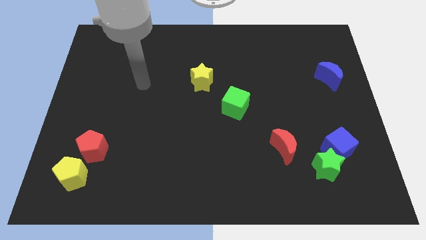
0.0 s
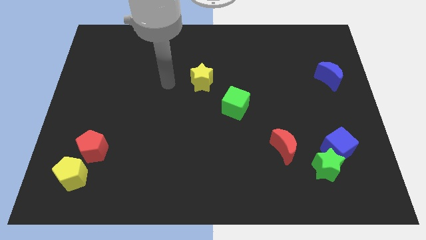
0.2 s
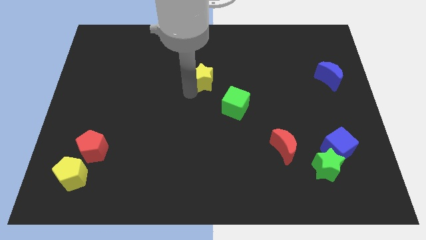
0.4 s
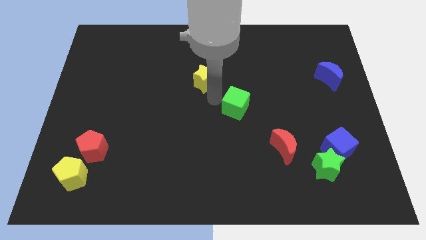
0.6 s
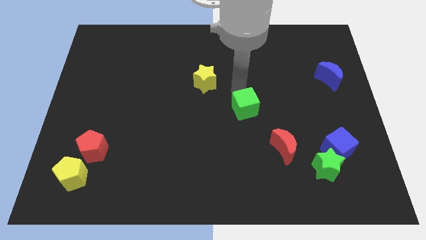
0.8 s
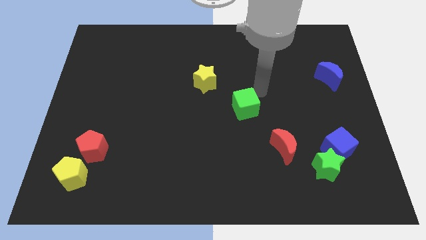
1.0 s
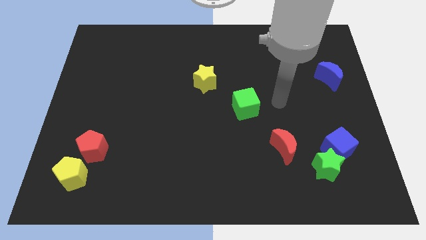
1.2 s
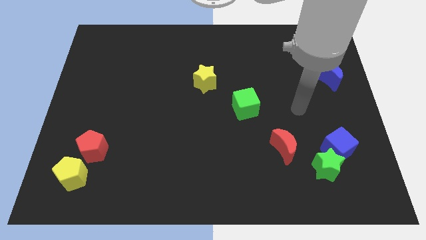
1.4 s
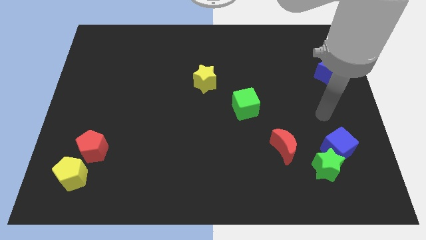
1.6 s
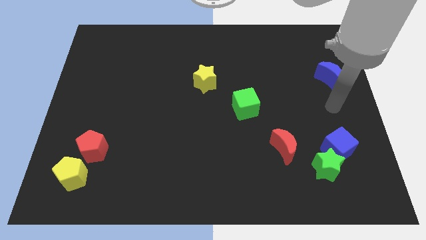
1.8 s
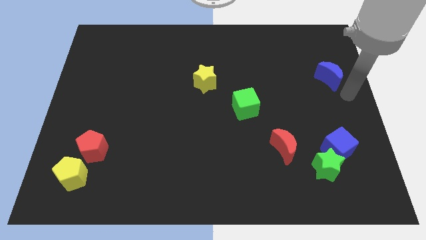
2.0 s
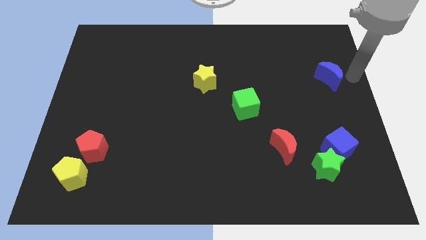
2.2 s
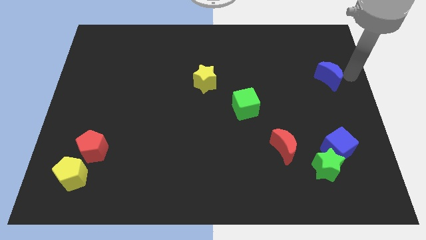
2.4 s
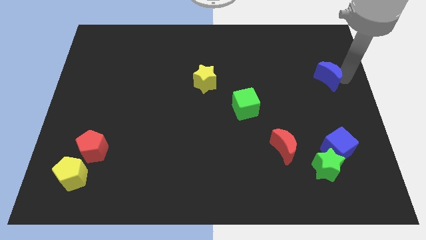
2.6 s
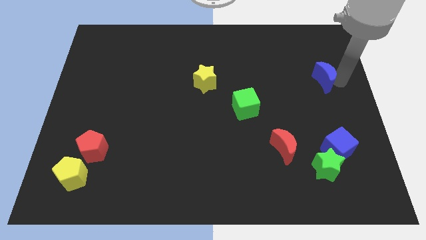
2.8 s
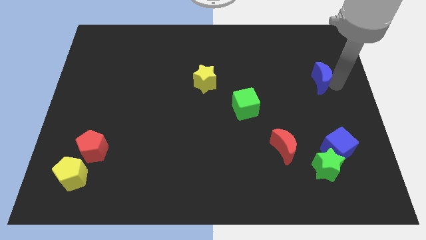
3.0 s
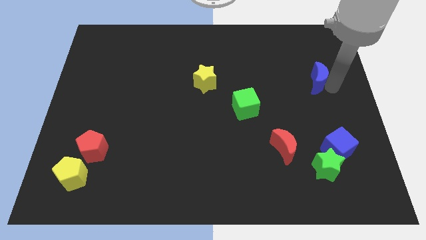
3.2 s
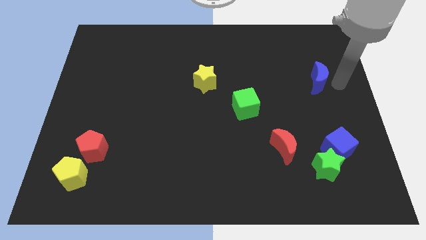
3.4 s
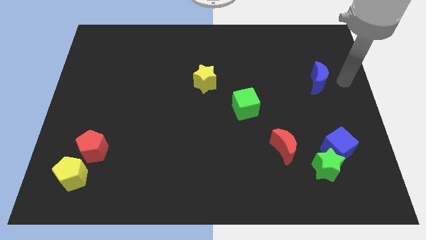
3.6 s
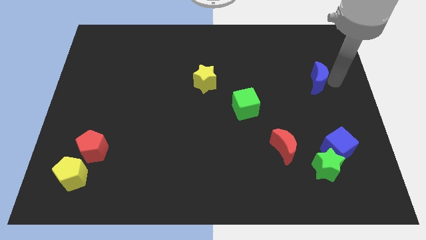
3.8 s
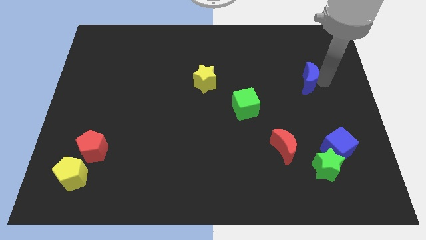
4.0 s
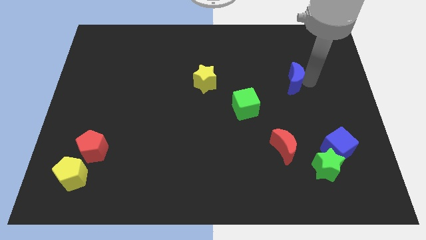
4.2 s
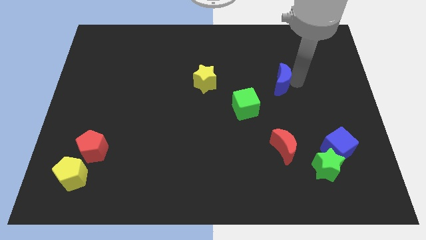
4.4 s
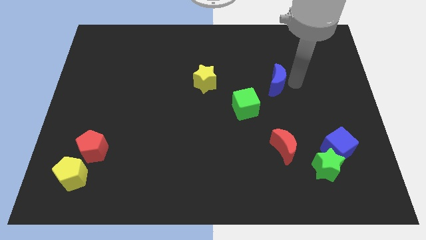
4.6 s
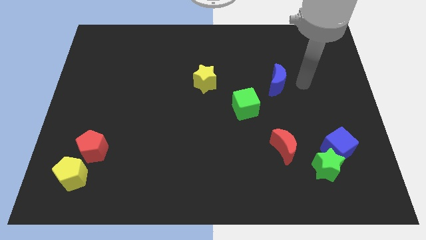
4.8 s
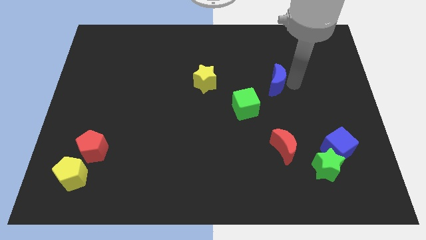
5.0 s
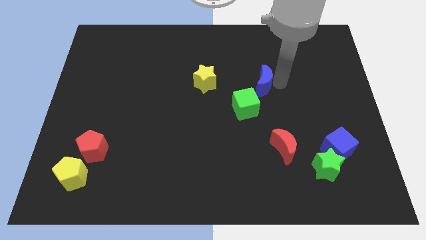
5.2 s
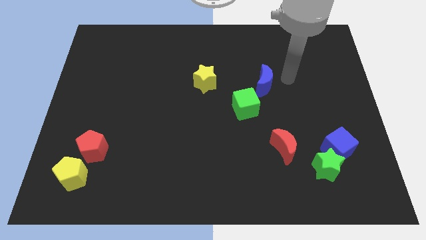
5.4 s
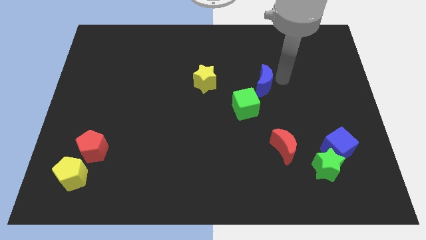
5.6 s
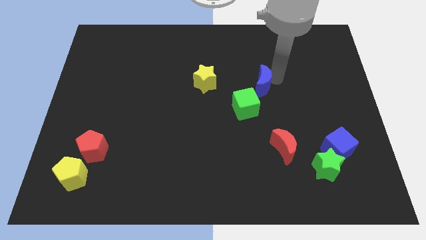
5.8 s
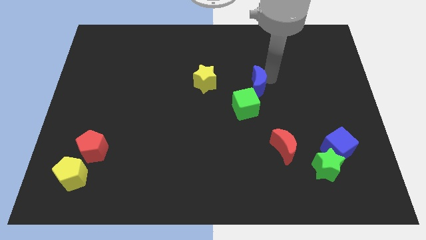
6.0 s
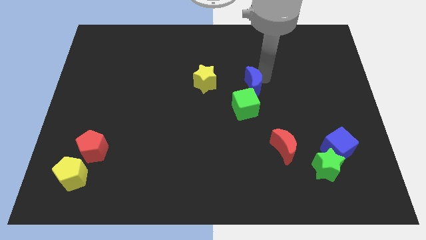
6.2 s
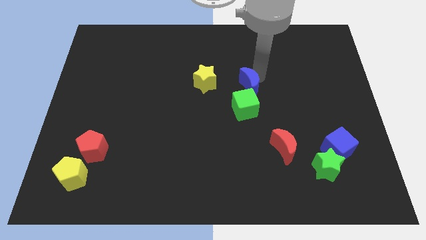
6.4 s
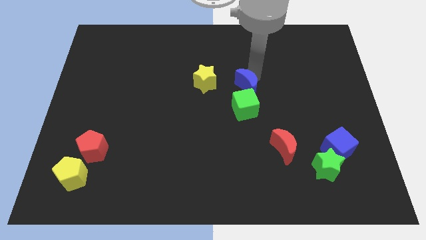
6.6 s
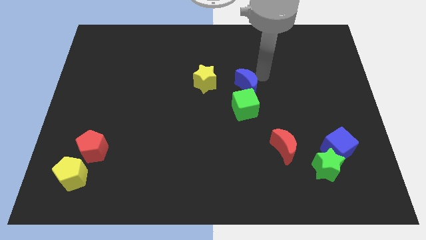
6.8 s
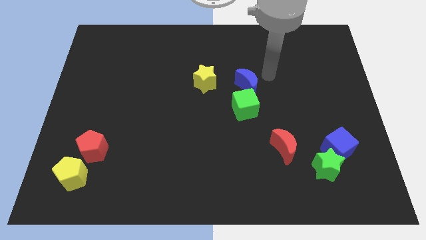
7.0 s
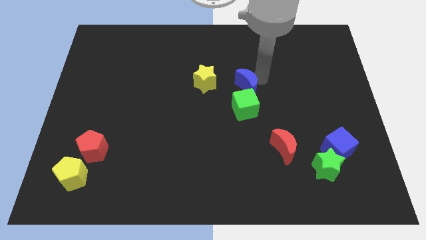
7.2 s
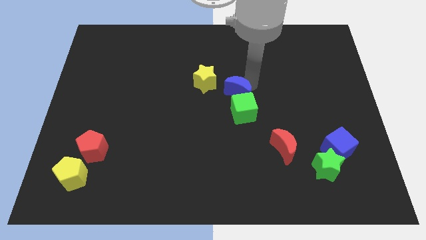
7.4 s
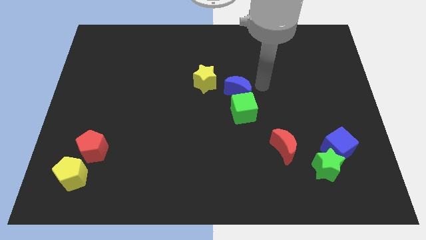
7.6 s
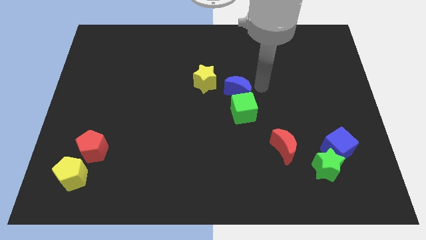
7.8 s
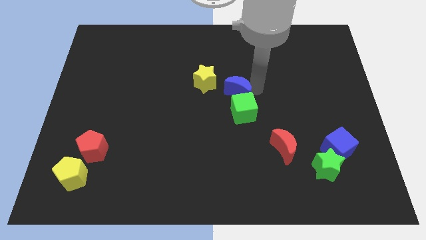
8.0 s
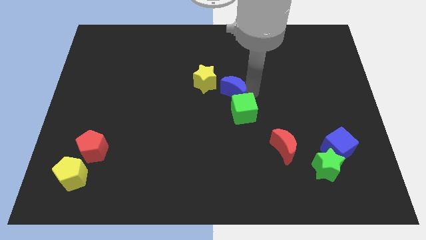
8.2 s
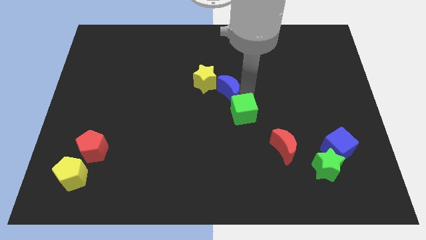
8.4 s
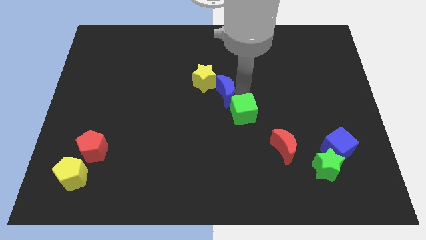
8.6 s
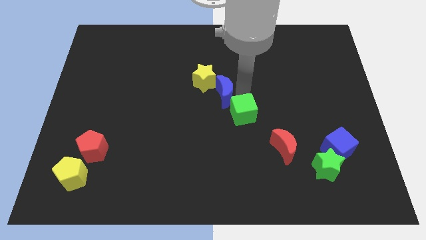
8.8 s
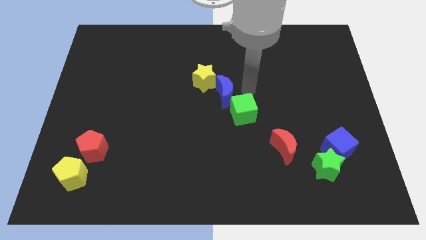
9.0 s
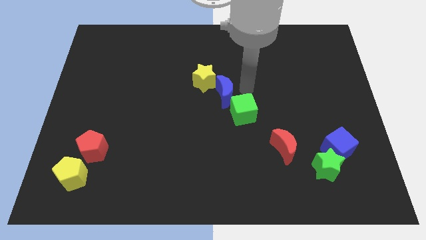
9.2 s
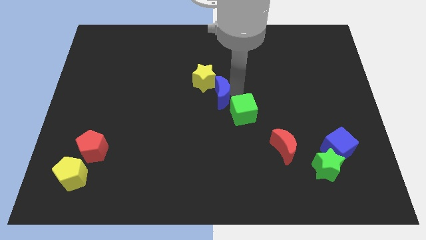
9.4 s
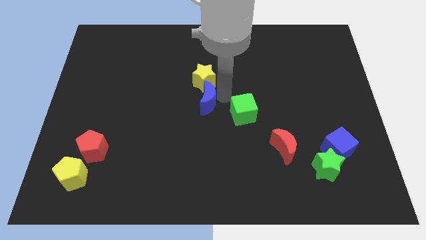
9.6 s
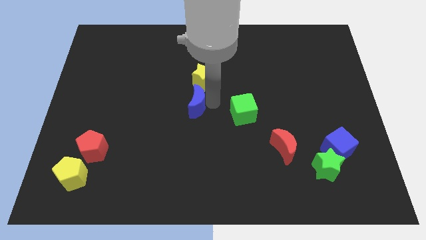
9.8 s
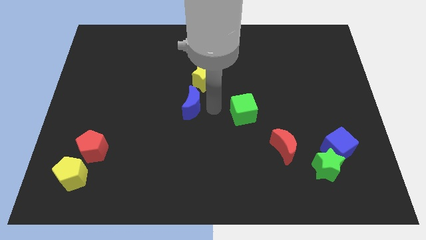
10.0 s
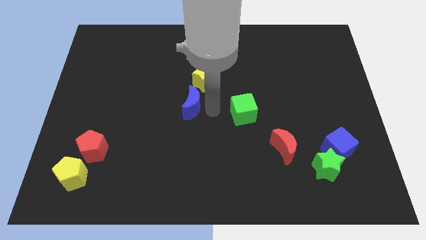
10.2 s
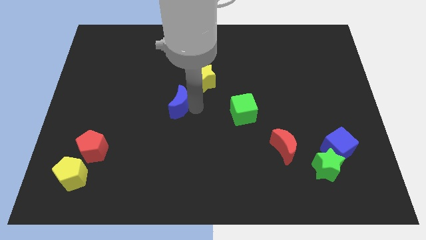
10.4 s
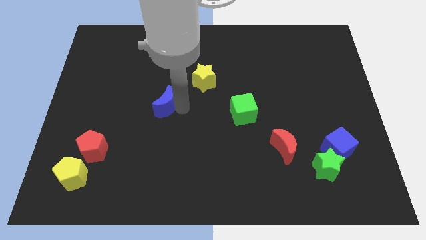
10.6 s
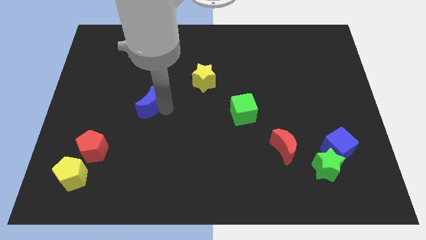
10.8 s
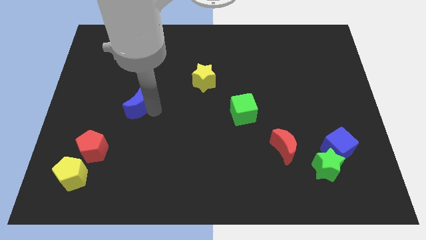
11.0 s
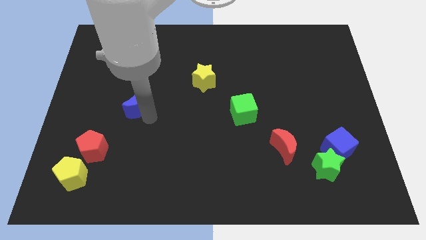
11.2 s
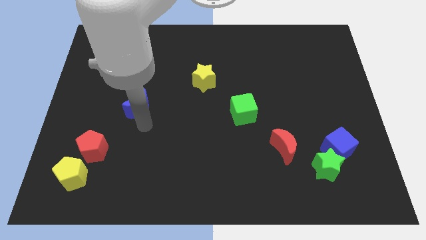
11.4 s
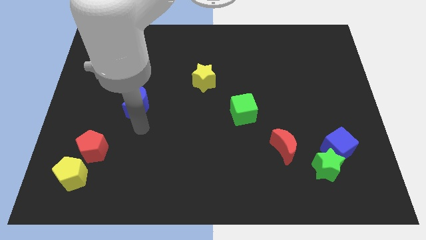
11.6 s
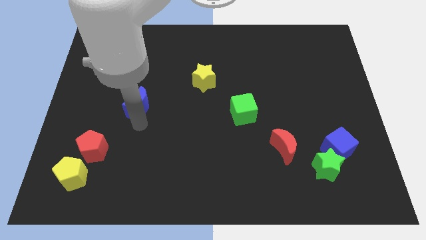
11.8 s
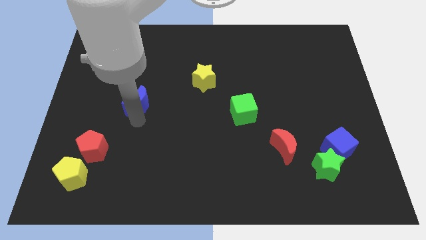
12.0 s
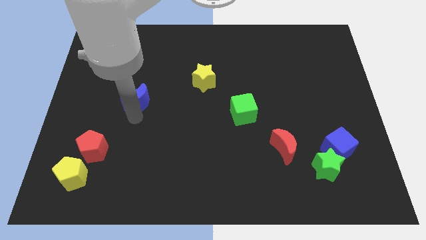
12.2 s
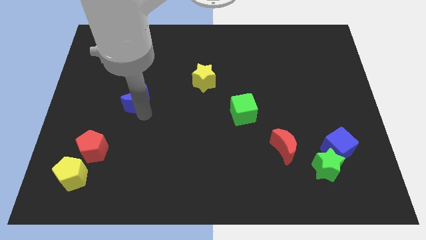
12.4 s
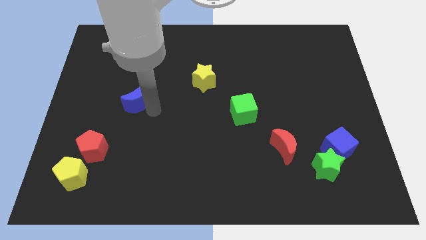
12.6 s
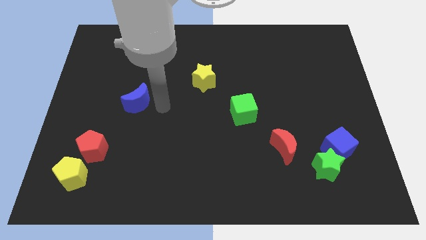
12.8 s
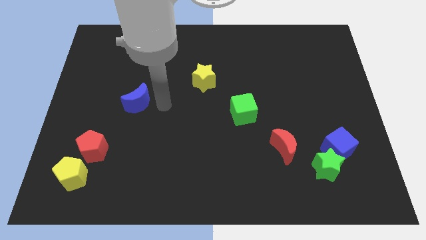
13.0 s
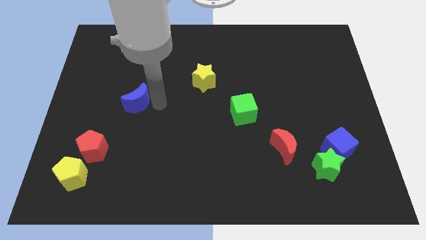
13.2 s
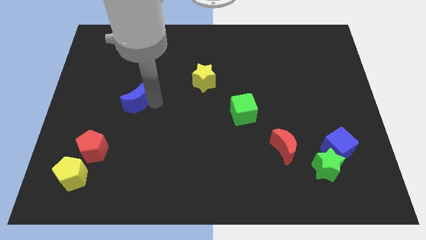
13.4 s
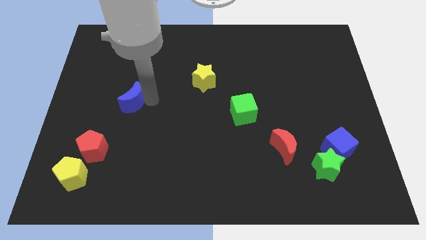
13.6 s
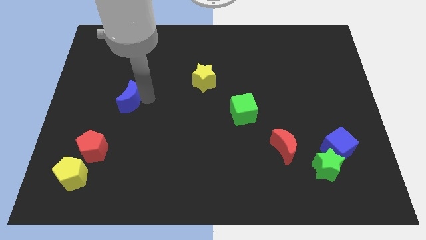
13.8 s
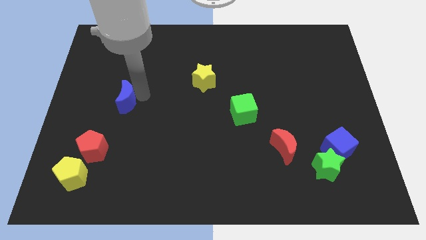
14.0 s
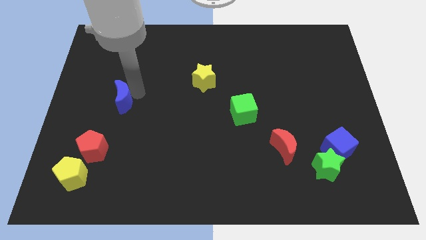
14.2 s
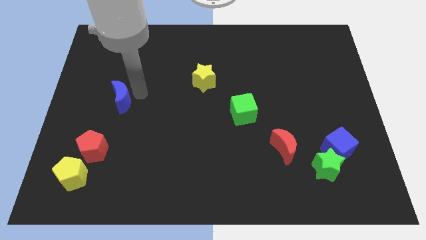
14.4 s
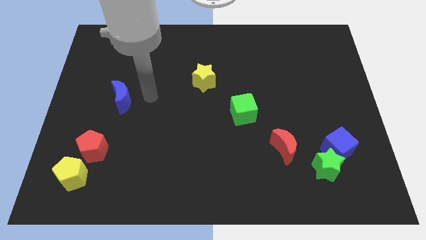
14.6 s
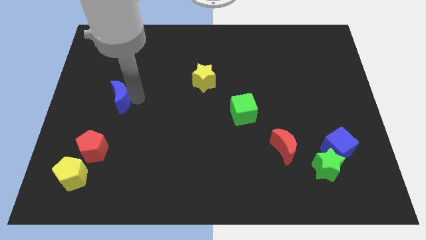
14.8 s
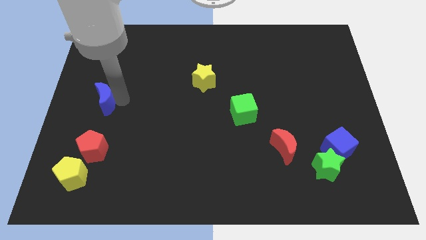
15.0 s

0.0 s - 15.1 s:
move the blue moon to the left side
